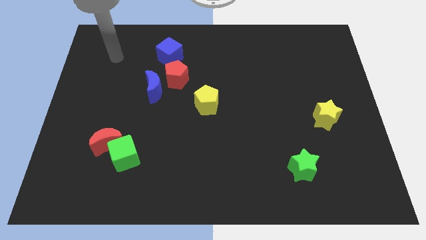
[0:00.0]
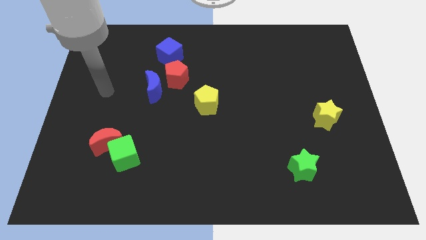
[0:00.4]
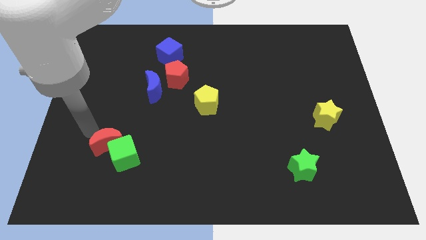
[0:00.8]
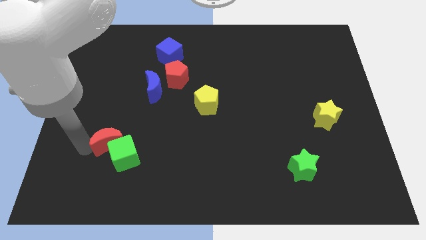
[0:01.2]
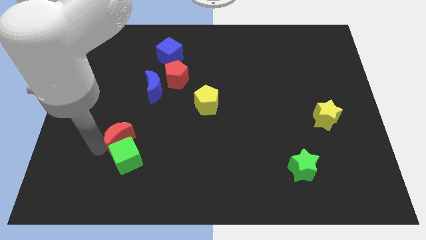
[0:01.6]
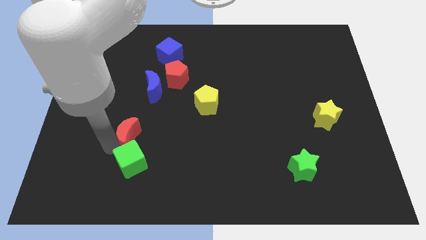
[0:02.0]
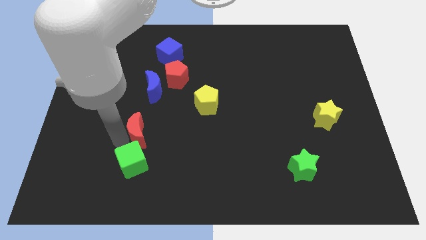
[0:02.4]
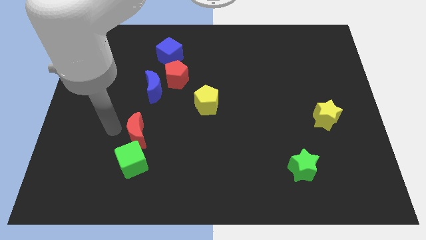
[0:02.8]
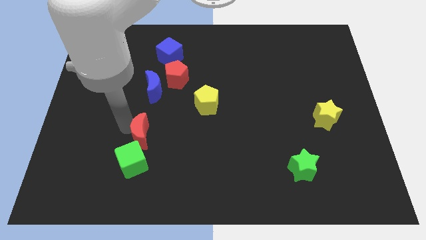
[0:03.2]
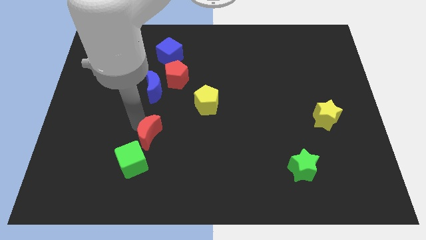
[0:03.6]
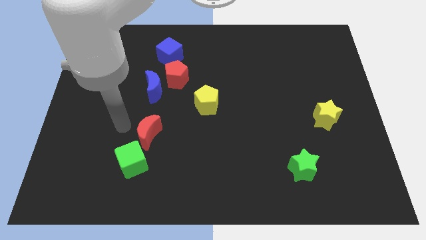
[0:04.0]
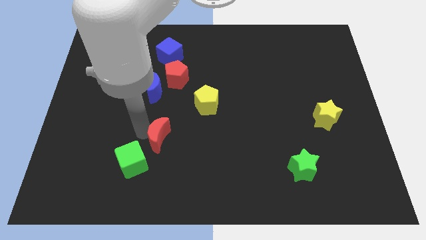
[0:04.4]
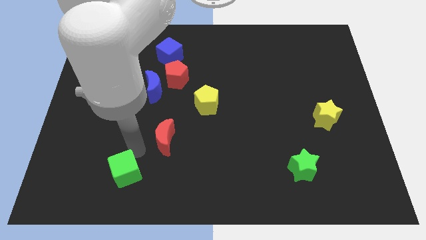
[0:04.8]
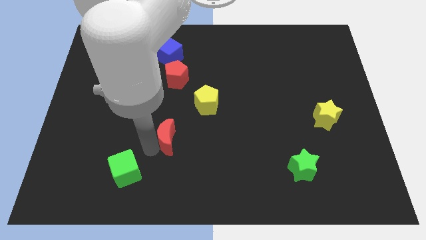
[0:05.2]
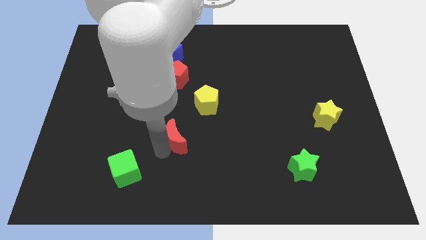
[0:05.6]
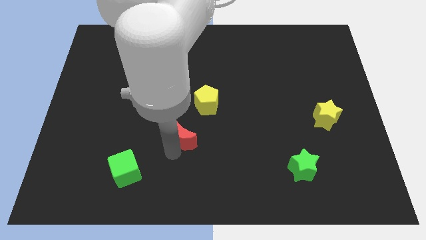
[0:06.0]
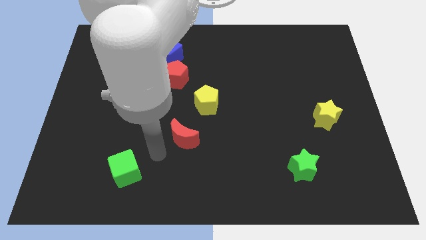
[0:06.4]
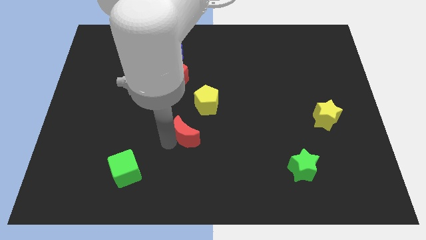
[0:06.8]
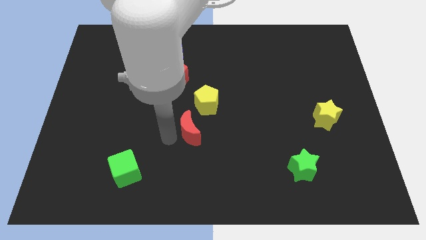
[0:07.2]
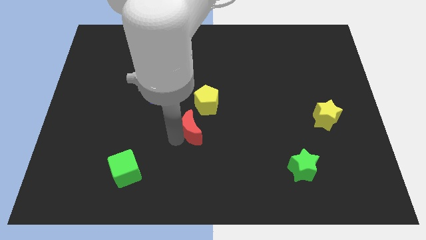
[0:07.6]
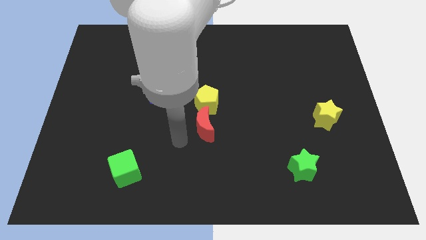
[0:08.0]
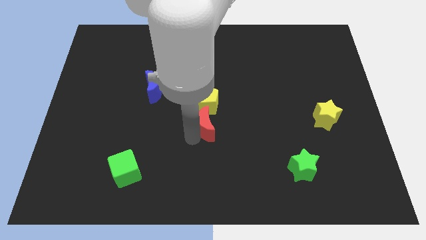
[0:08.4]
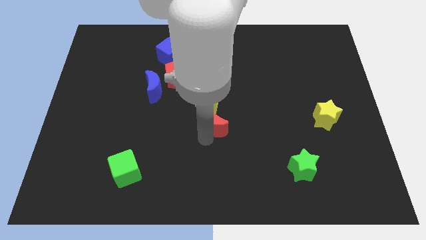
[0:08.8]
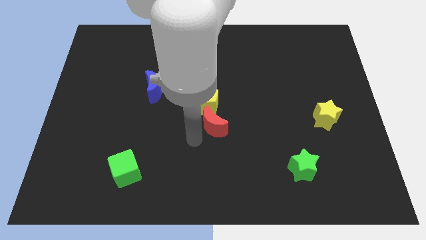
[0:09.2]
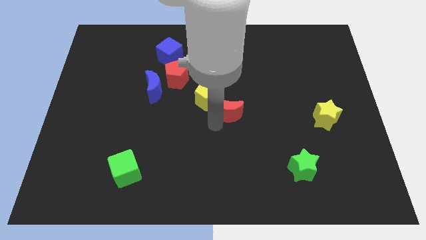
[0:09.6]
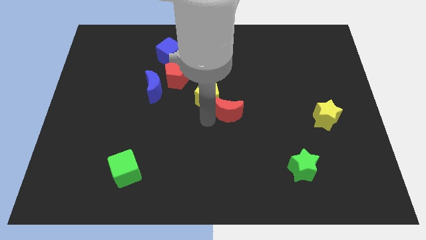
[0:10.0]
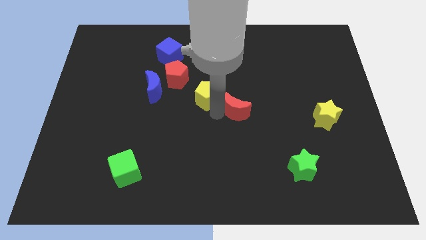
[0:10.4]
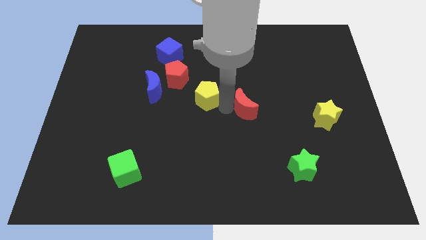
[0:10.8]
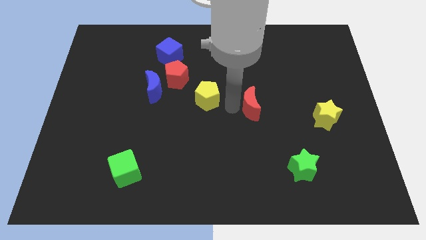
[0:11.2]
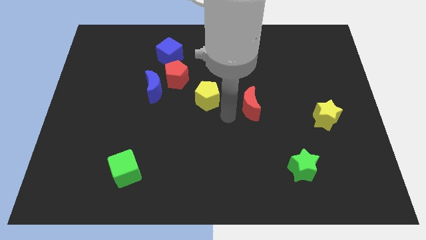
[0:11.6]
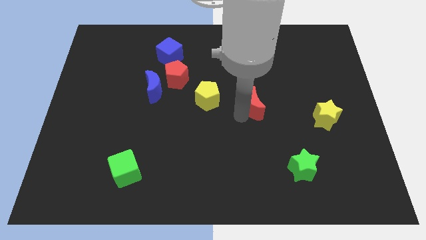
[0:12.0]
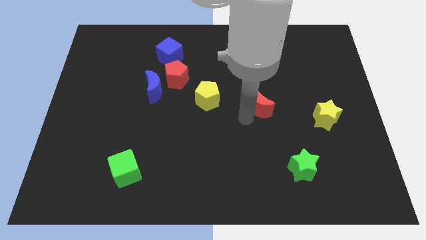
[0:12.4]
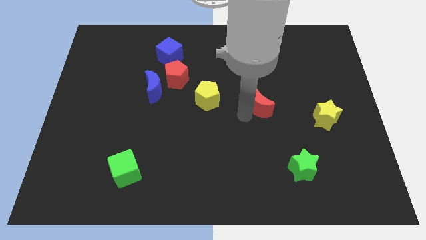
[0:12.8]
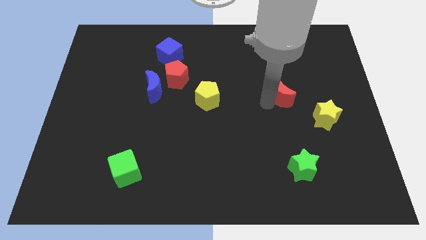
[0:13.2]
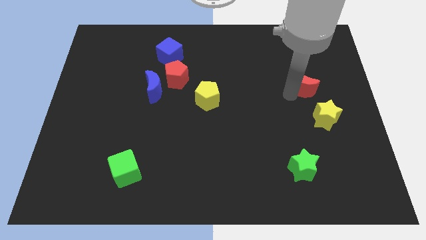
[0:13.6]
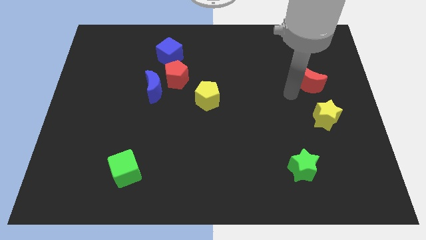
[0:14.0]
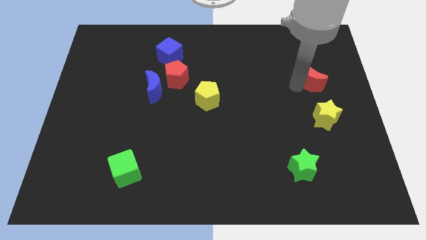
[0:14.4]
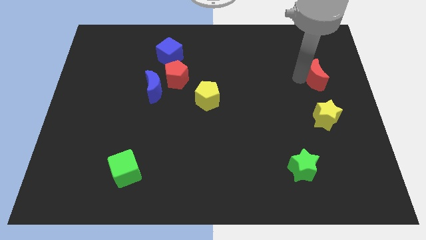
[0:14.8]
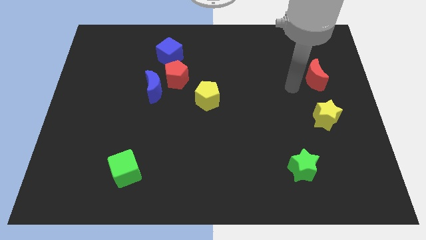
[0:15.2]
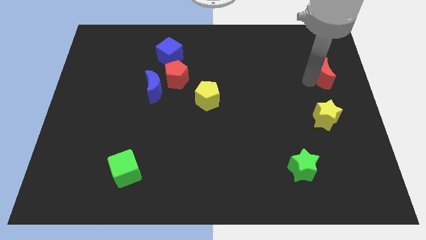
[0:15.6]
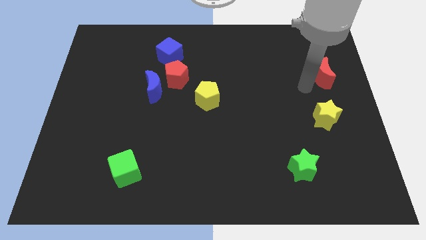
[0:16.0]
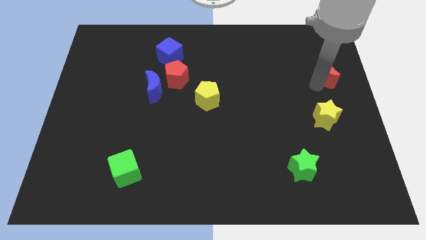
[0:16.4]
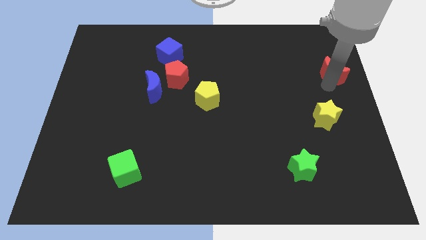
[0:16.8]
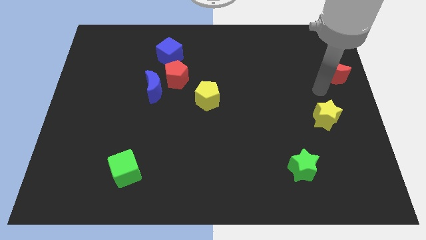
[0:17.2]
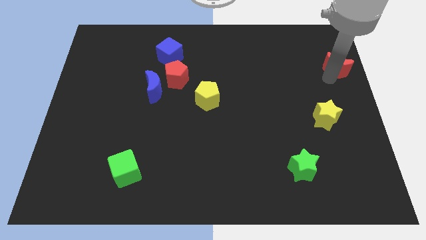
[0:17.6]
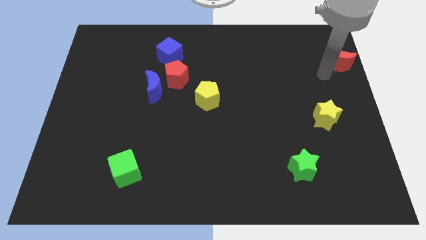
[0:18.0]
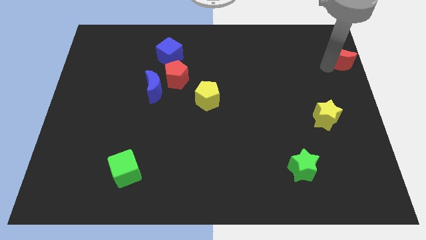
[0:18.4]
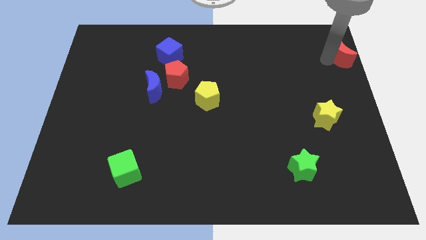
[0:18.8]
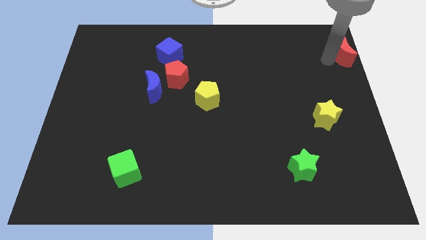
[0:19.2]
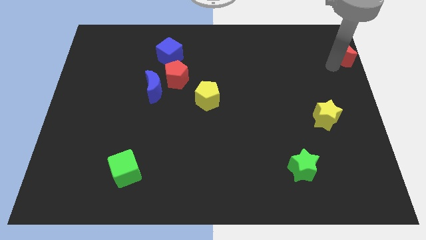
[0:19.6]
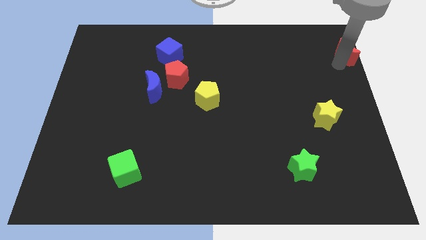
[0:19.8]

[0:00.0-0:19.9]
push the red moon to the top right

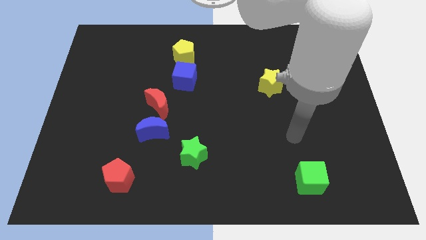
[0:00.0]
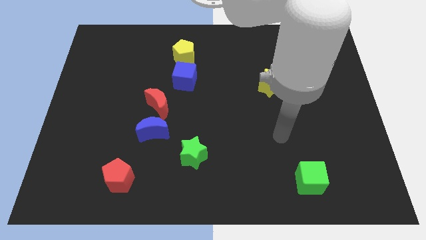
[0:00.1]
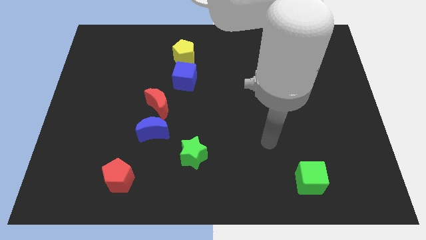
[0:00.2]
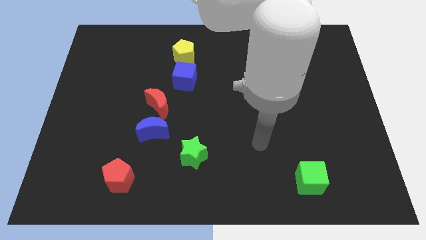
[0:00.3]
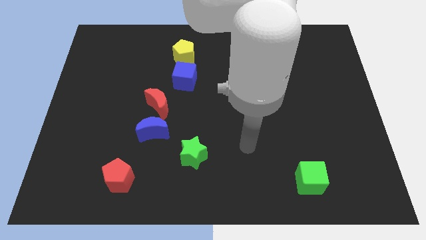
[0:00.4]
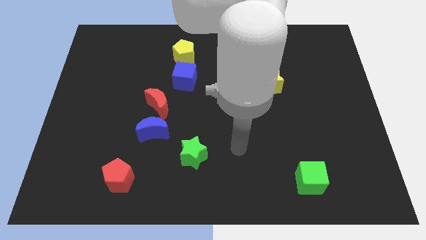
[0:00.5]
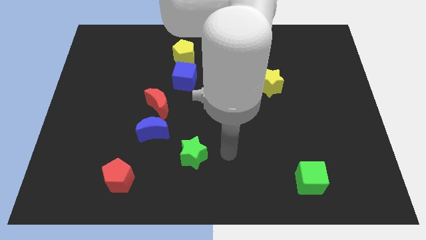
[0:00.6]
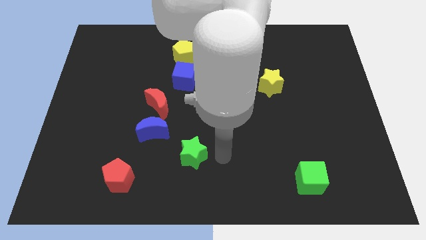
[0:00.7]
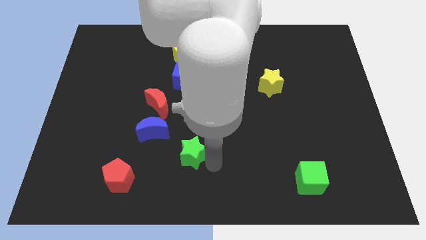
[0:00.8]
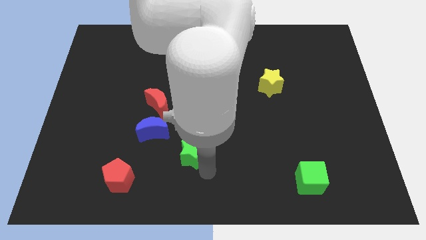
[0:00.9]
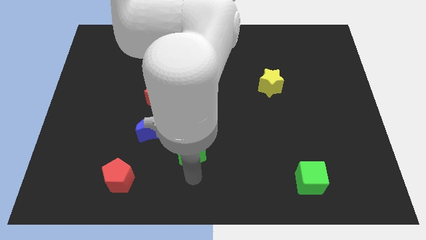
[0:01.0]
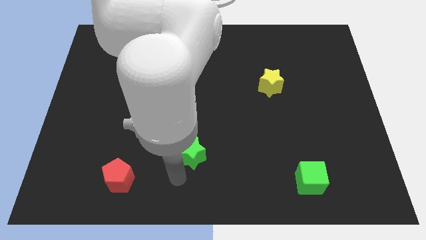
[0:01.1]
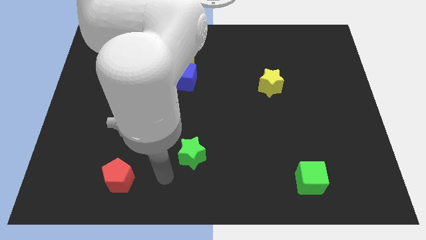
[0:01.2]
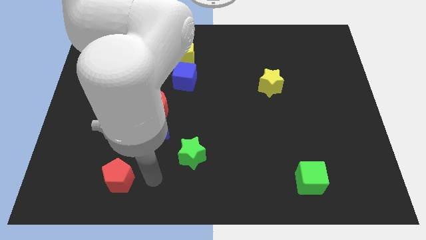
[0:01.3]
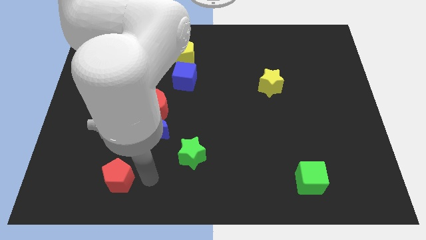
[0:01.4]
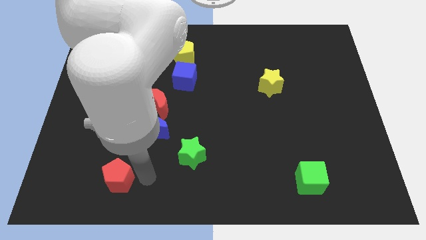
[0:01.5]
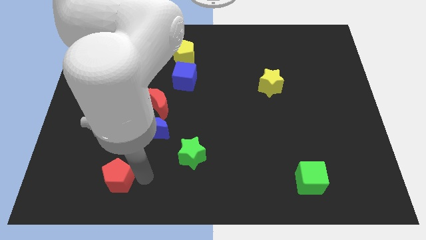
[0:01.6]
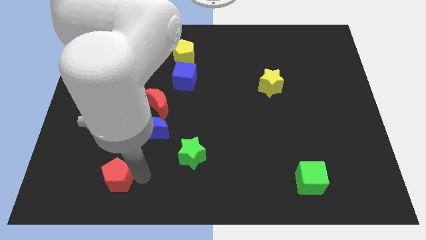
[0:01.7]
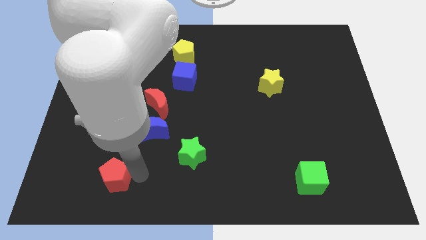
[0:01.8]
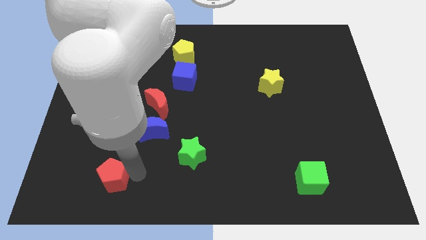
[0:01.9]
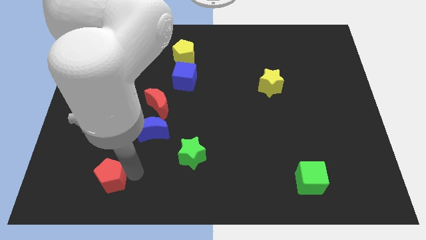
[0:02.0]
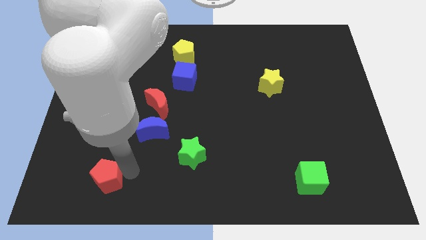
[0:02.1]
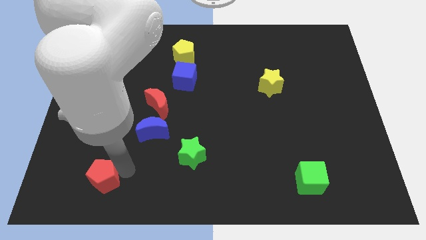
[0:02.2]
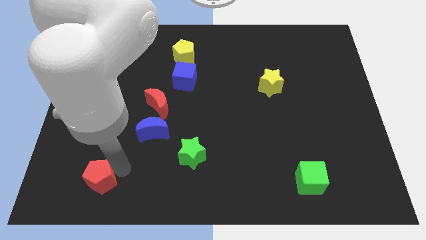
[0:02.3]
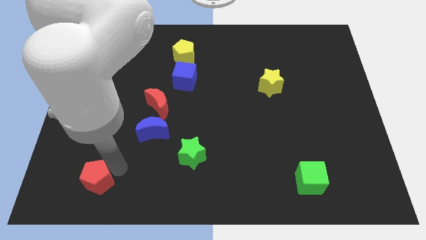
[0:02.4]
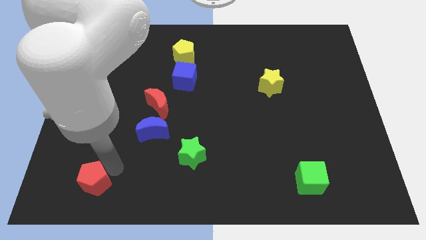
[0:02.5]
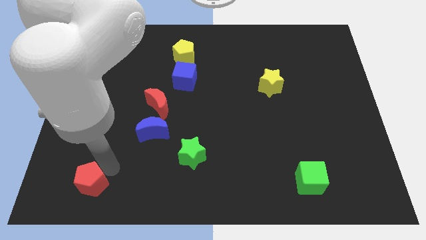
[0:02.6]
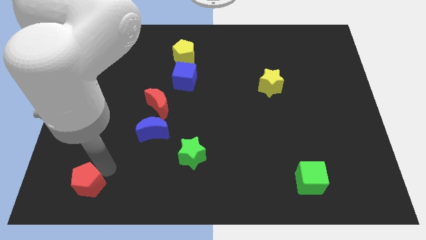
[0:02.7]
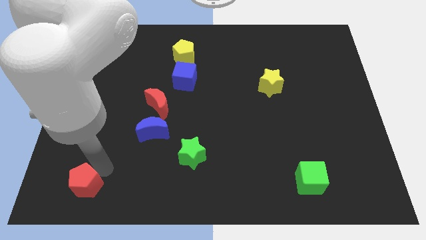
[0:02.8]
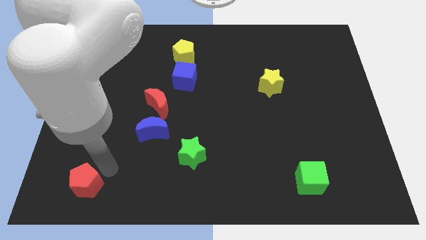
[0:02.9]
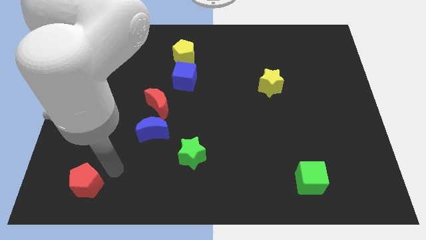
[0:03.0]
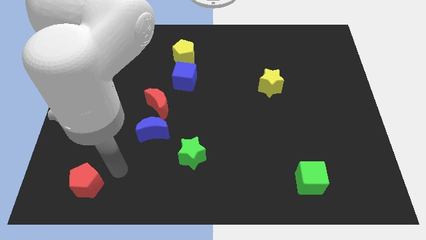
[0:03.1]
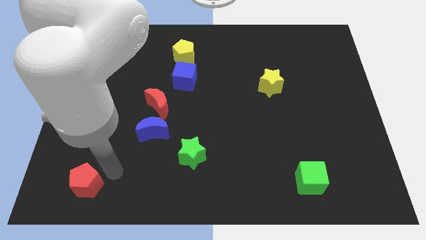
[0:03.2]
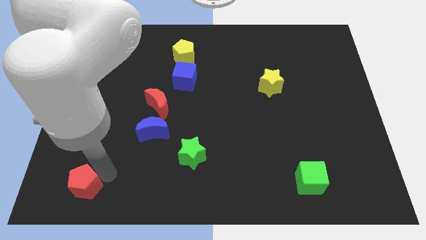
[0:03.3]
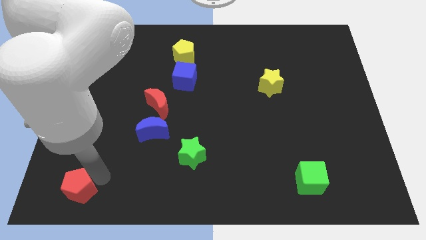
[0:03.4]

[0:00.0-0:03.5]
slide the red pentagon to the bottom left corner
